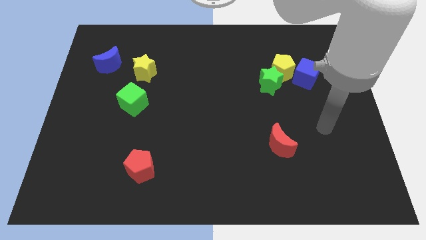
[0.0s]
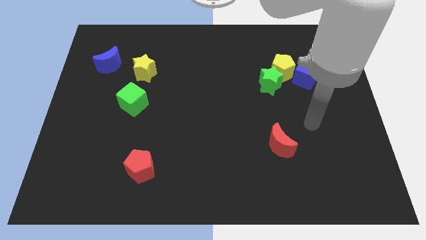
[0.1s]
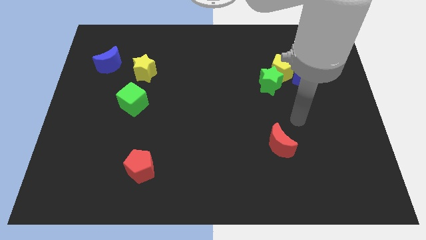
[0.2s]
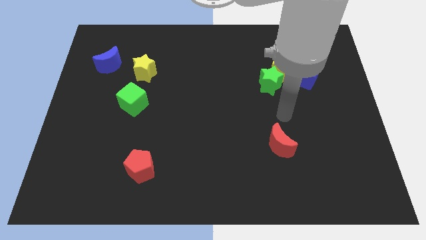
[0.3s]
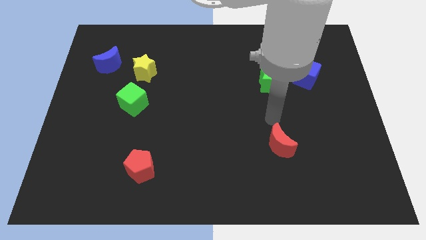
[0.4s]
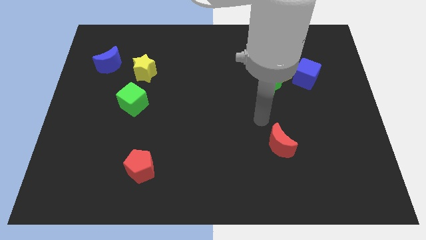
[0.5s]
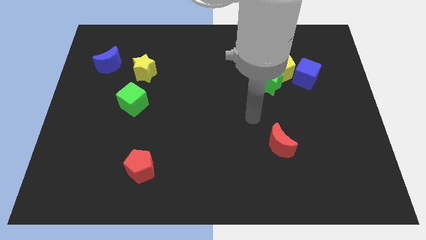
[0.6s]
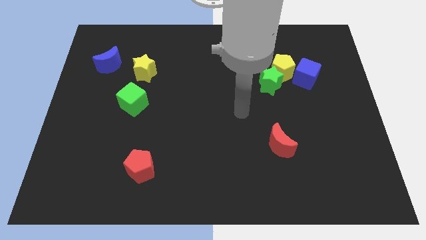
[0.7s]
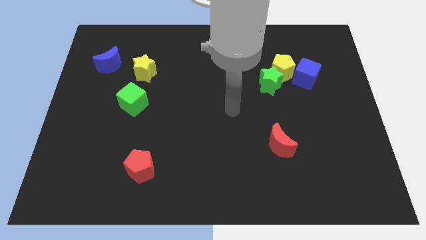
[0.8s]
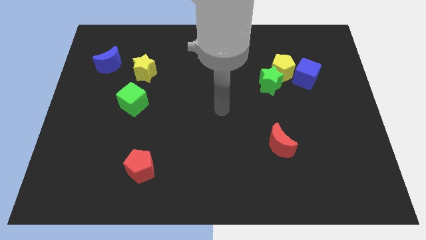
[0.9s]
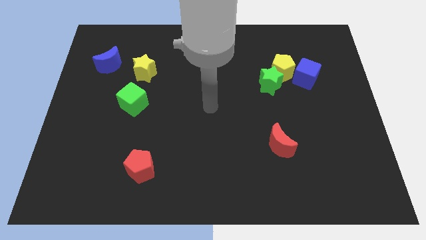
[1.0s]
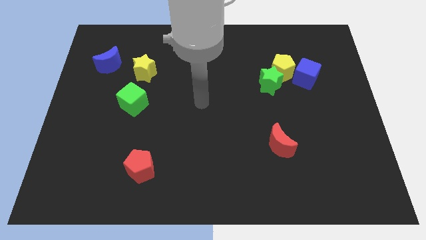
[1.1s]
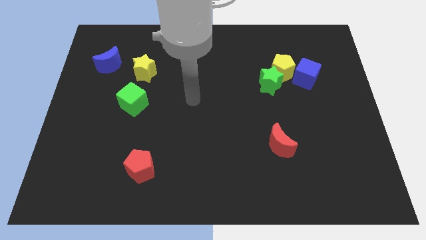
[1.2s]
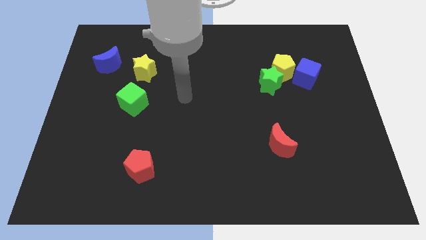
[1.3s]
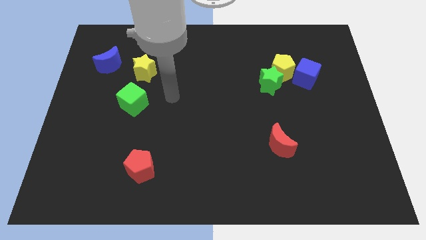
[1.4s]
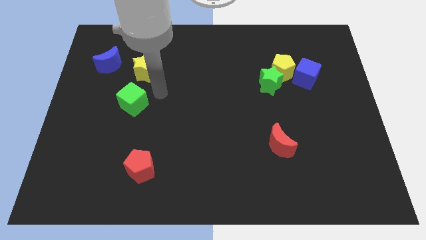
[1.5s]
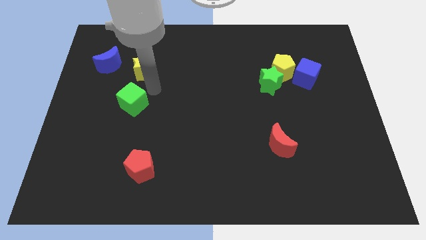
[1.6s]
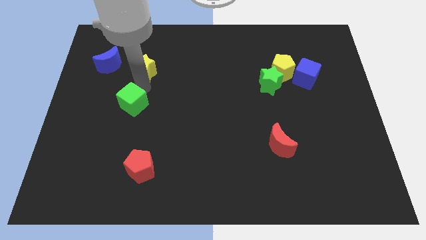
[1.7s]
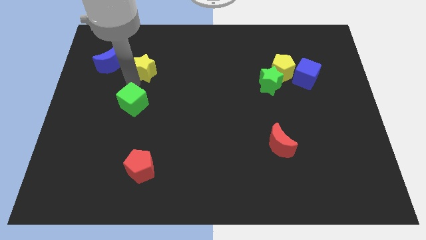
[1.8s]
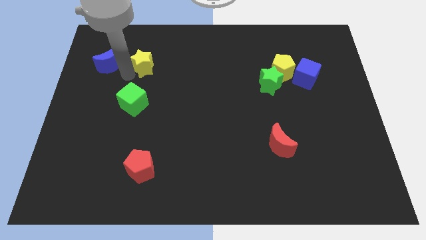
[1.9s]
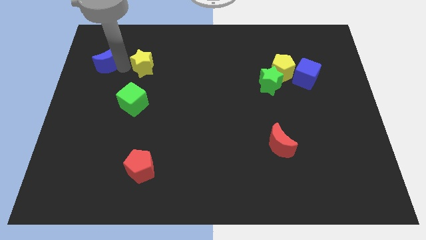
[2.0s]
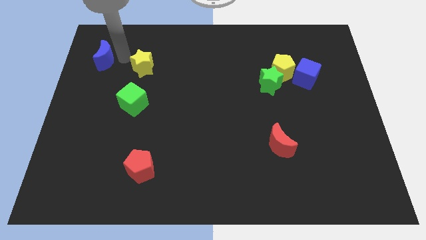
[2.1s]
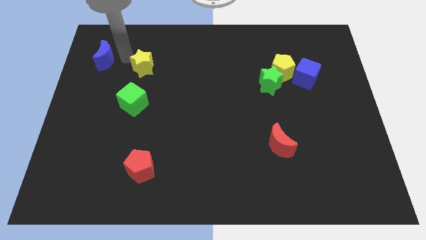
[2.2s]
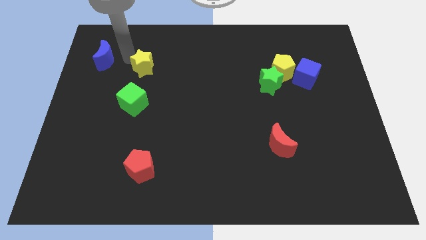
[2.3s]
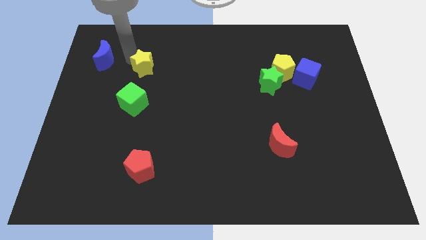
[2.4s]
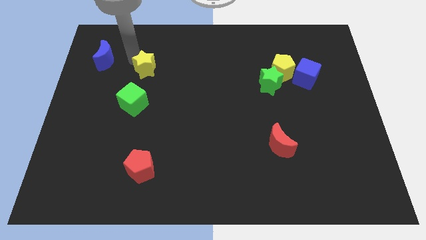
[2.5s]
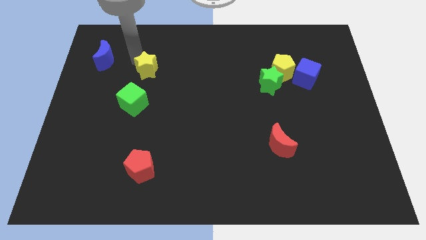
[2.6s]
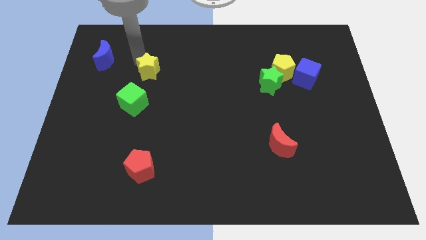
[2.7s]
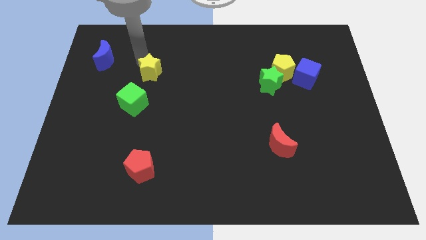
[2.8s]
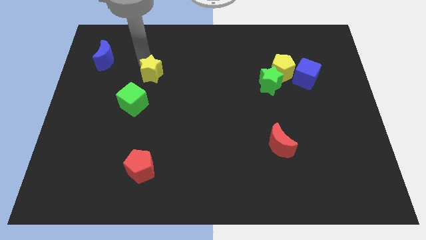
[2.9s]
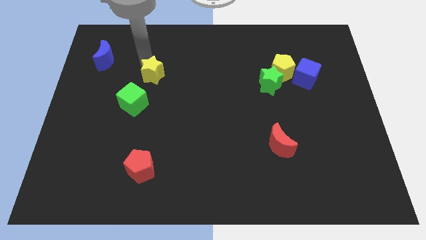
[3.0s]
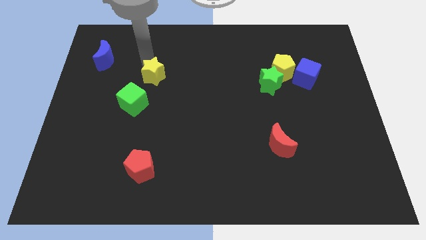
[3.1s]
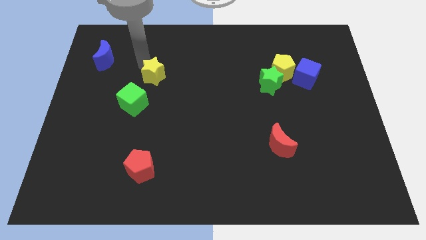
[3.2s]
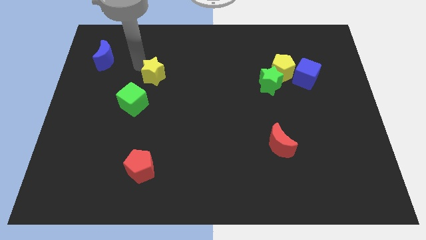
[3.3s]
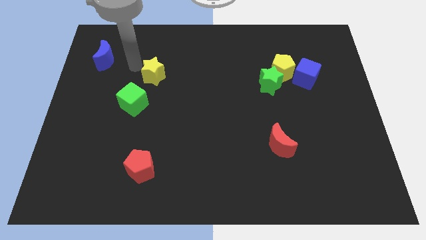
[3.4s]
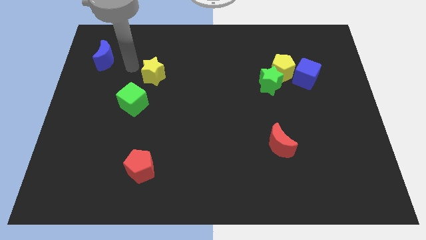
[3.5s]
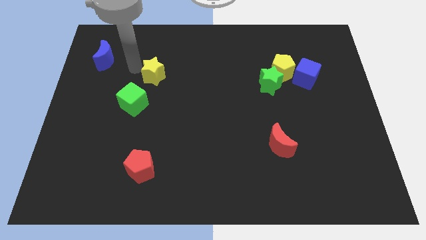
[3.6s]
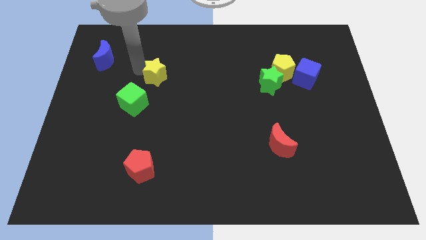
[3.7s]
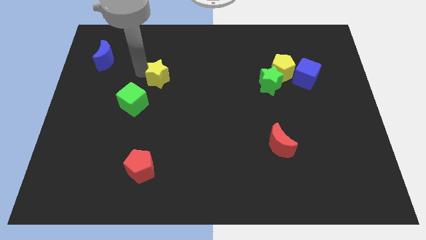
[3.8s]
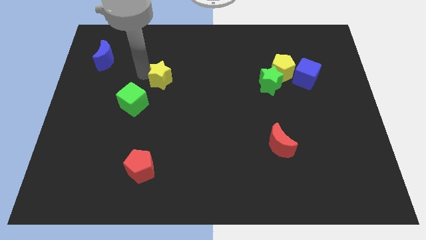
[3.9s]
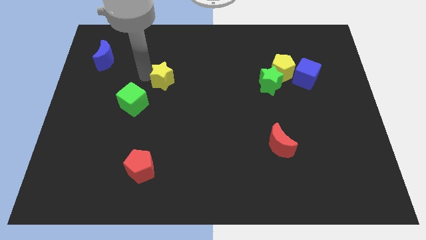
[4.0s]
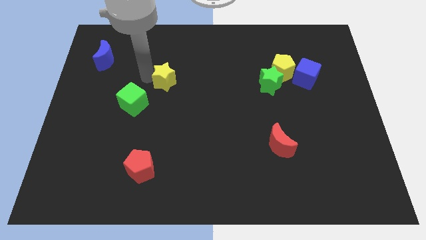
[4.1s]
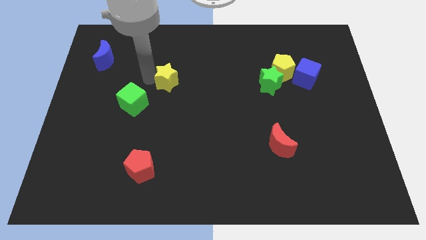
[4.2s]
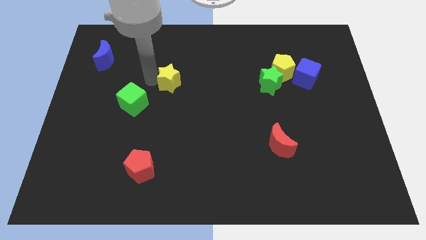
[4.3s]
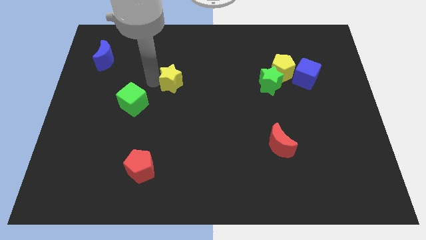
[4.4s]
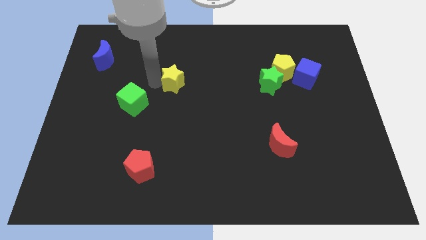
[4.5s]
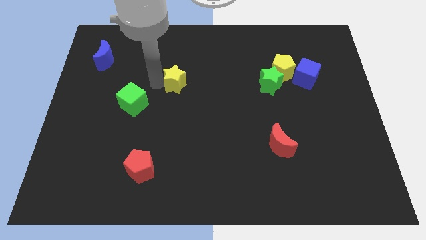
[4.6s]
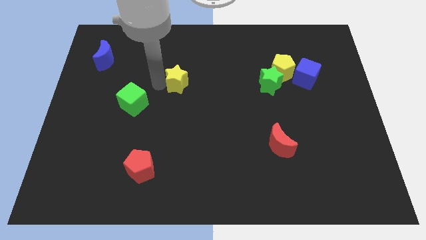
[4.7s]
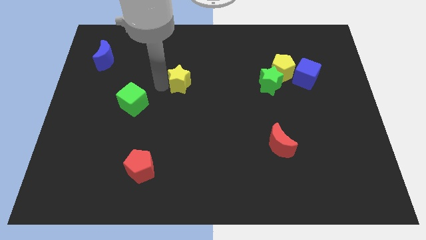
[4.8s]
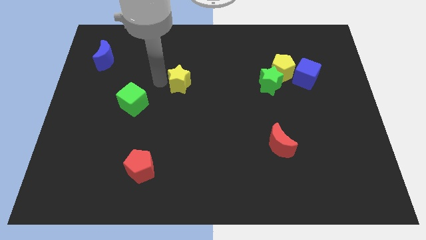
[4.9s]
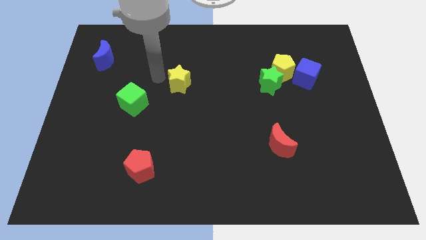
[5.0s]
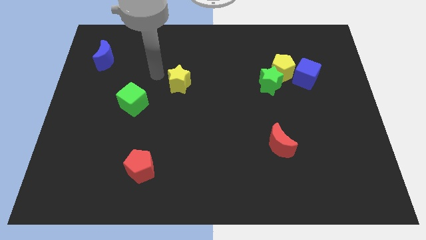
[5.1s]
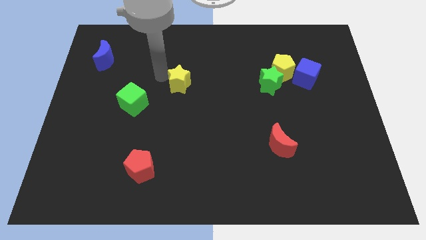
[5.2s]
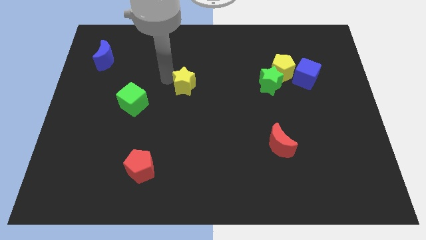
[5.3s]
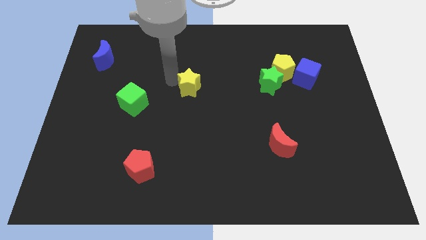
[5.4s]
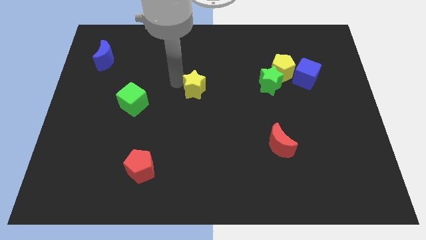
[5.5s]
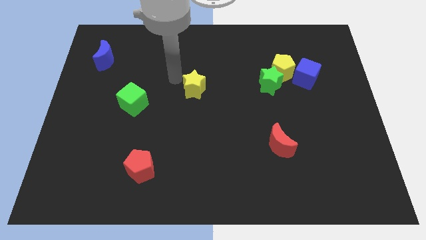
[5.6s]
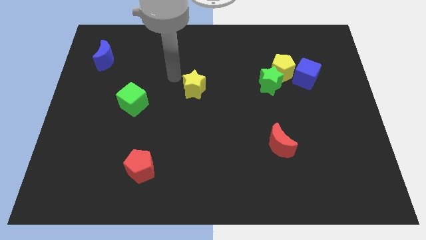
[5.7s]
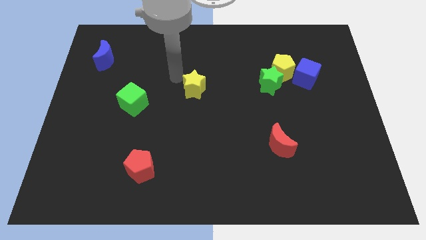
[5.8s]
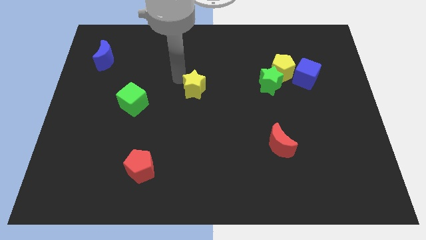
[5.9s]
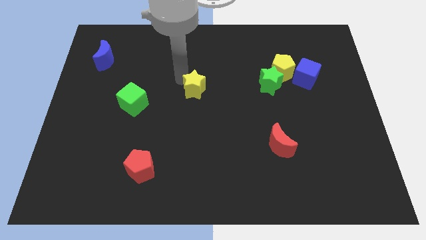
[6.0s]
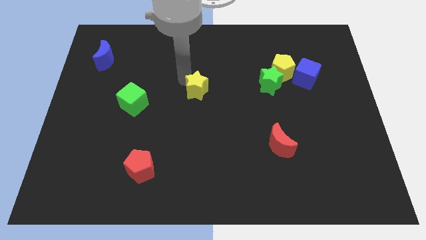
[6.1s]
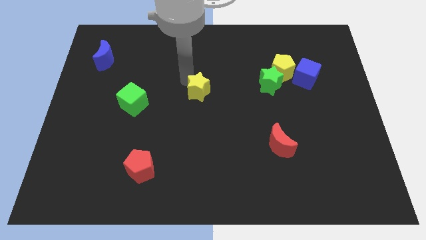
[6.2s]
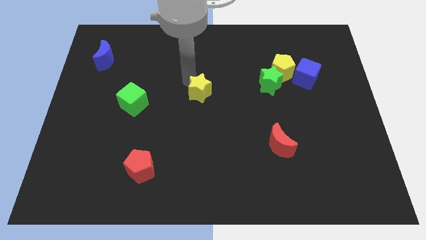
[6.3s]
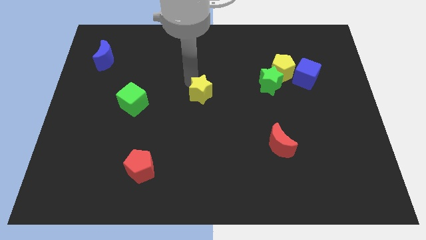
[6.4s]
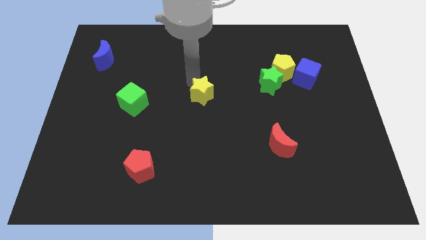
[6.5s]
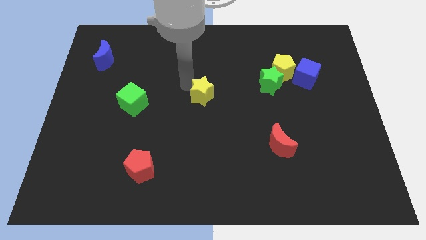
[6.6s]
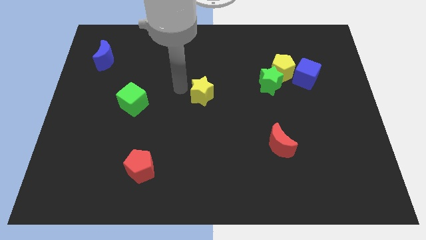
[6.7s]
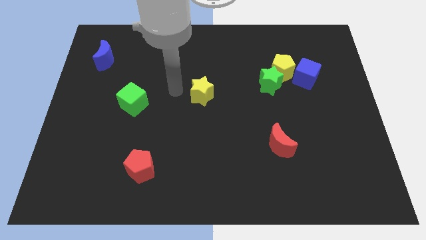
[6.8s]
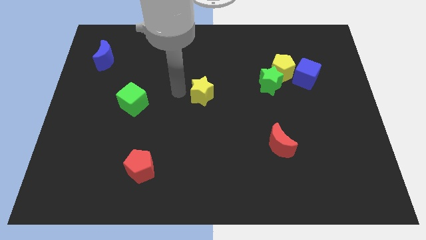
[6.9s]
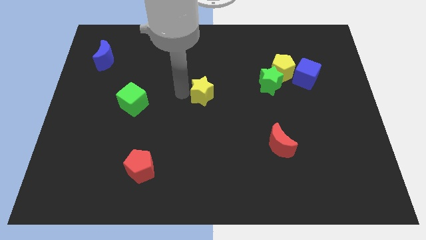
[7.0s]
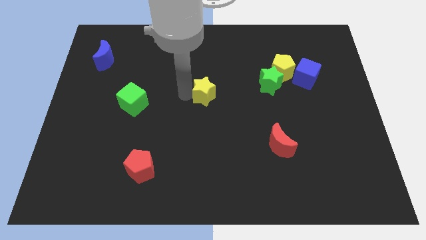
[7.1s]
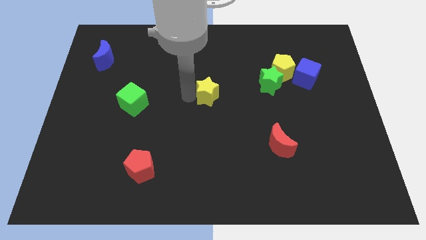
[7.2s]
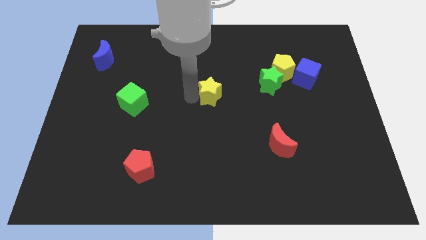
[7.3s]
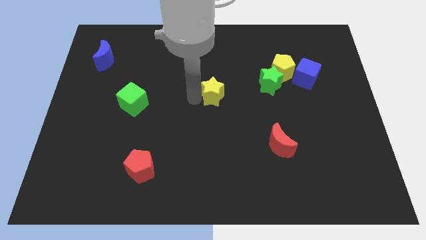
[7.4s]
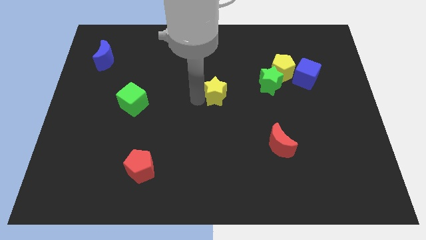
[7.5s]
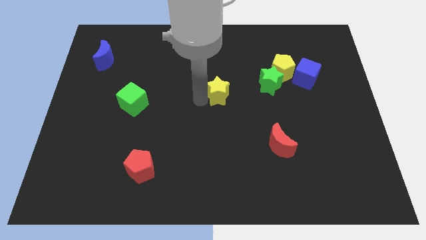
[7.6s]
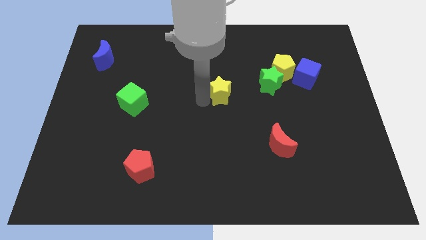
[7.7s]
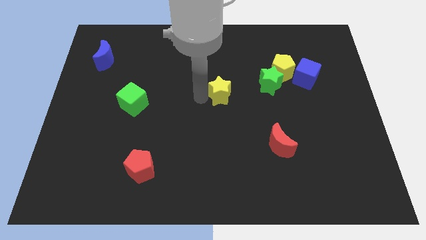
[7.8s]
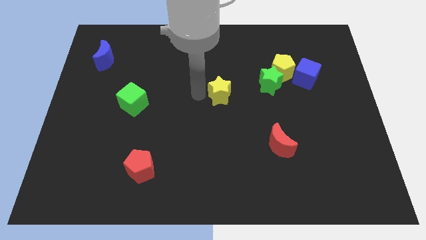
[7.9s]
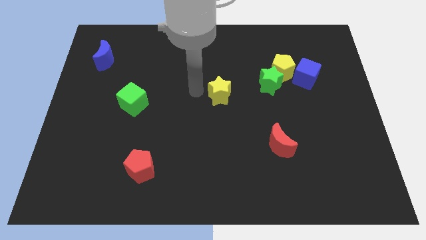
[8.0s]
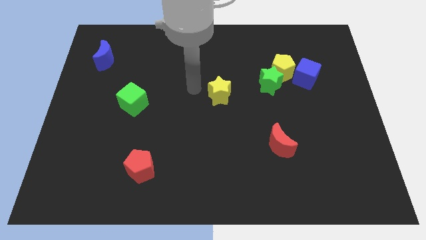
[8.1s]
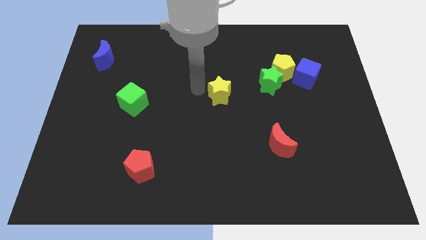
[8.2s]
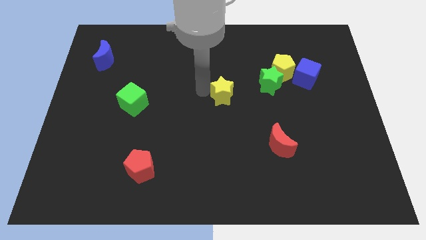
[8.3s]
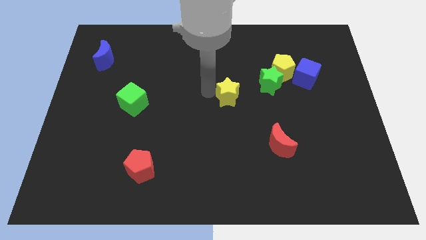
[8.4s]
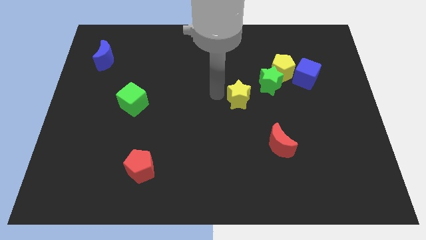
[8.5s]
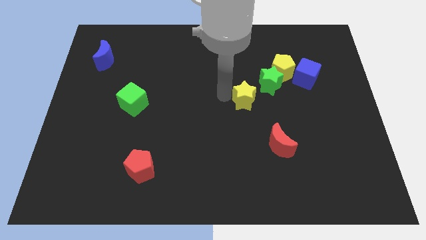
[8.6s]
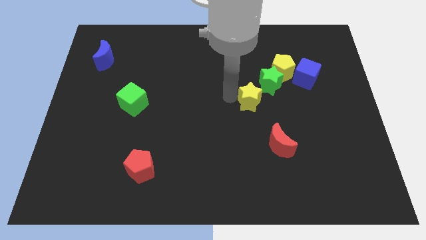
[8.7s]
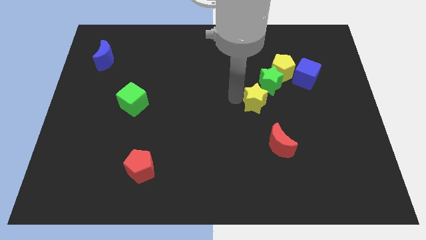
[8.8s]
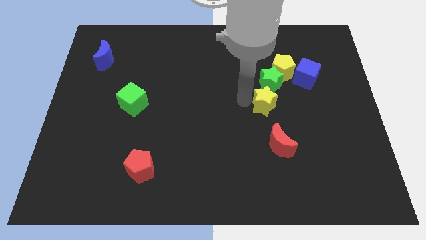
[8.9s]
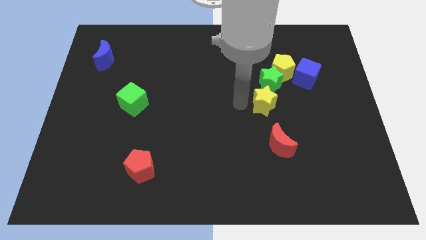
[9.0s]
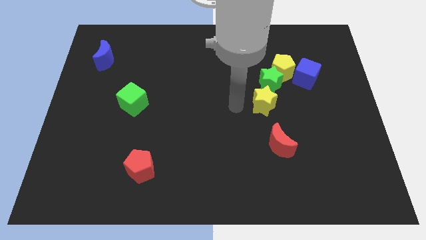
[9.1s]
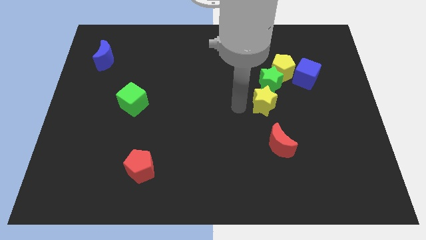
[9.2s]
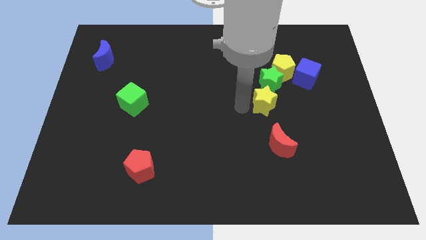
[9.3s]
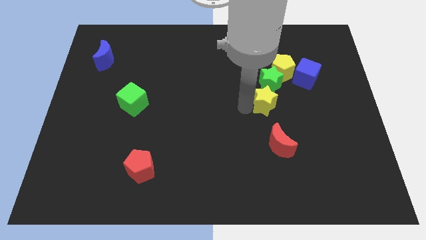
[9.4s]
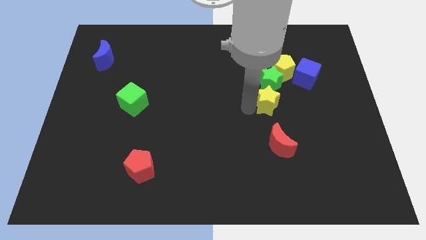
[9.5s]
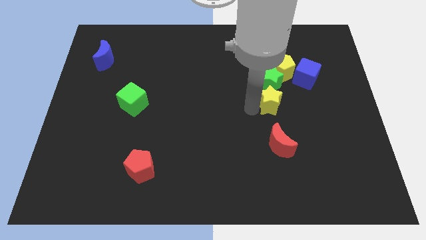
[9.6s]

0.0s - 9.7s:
push the yellow star to the bottom right side of the green star
